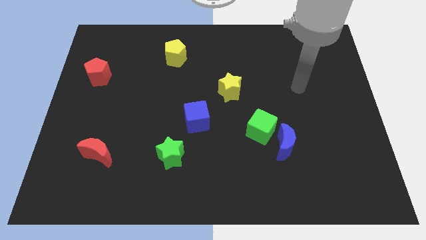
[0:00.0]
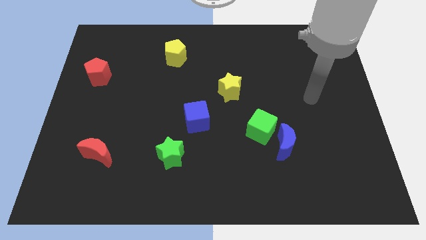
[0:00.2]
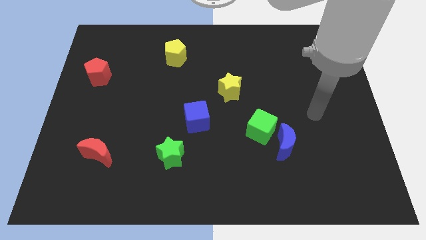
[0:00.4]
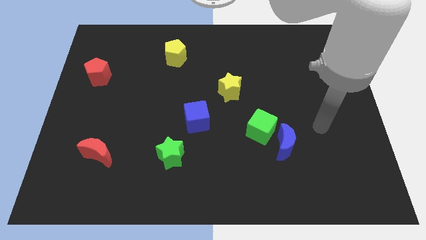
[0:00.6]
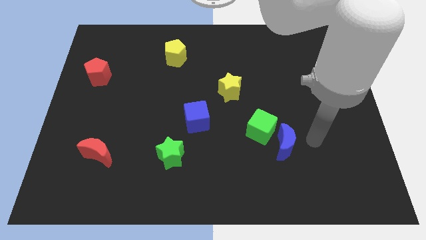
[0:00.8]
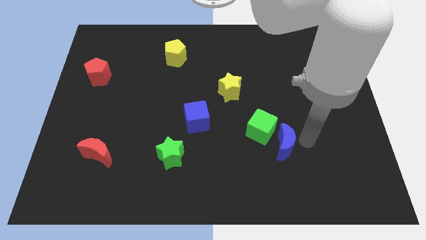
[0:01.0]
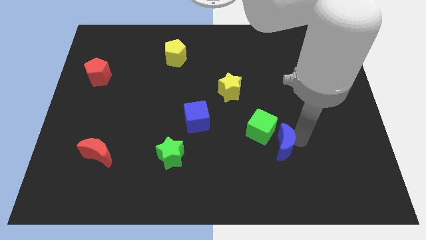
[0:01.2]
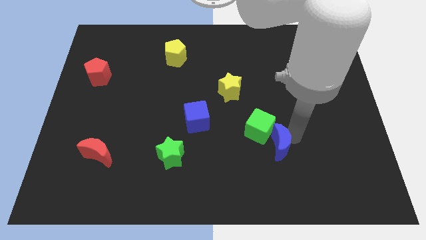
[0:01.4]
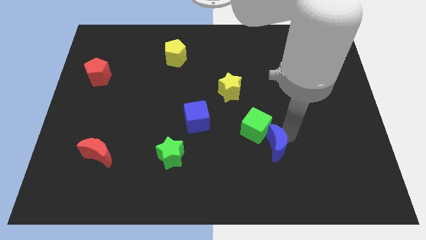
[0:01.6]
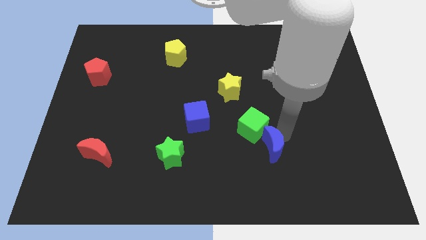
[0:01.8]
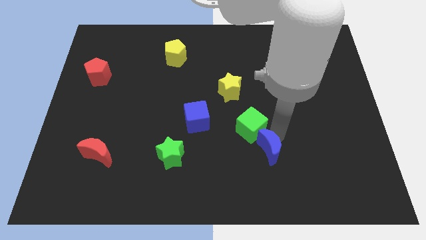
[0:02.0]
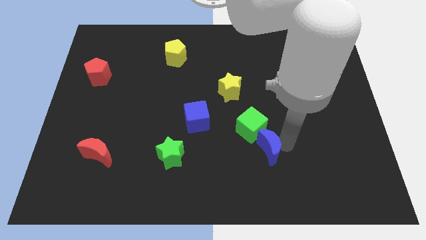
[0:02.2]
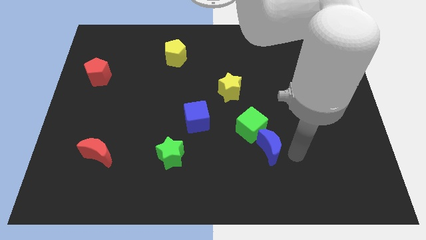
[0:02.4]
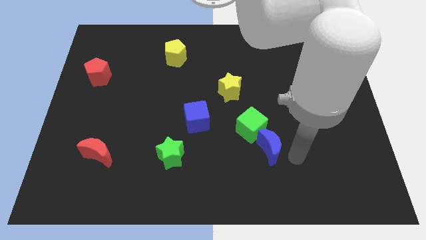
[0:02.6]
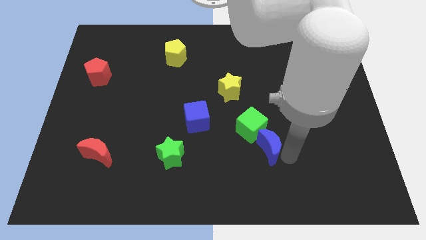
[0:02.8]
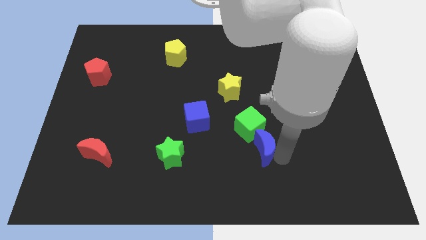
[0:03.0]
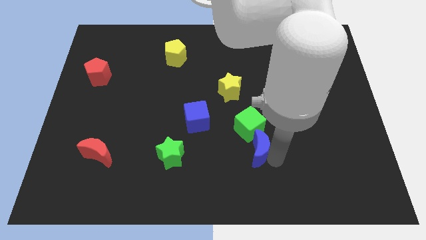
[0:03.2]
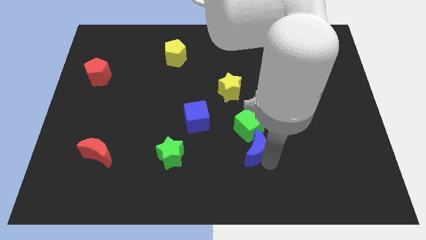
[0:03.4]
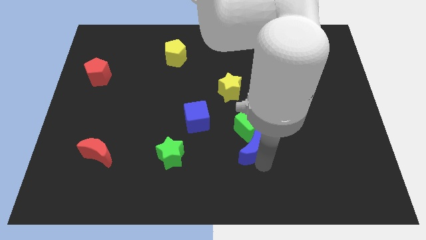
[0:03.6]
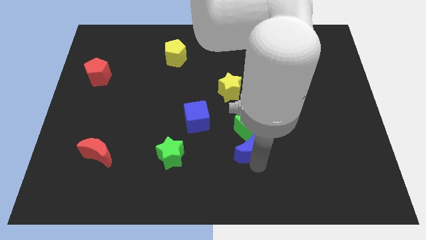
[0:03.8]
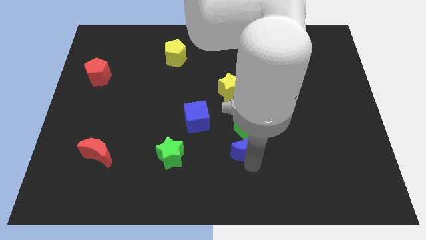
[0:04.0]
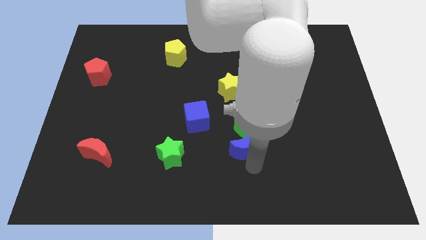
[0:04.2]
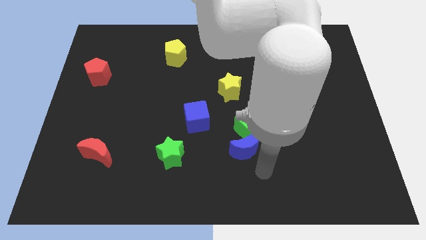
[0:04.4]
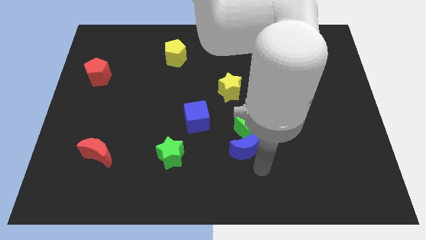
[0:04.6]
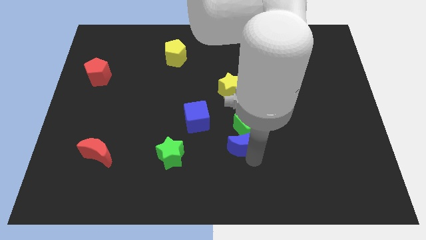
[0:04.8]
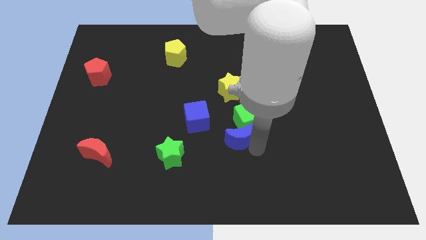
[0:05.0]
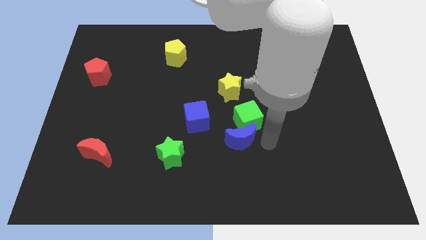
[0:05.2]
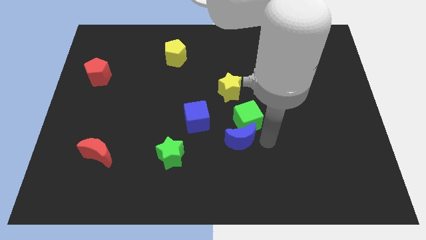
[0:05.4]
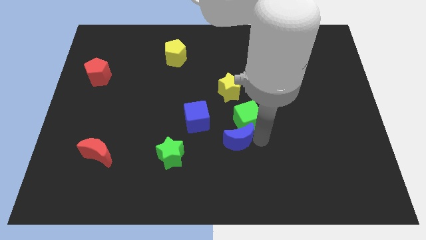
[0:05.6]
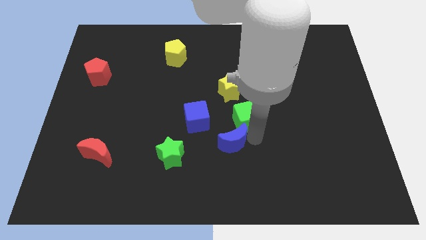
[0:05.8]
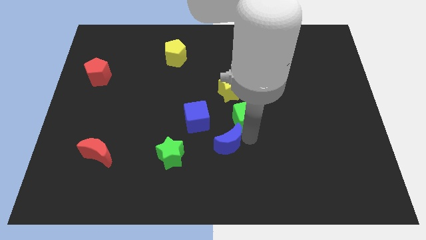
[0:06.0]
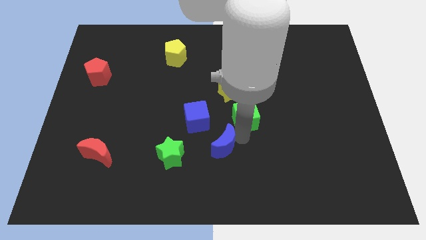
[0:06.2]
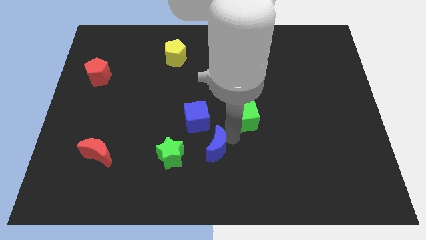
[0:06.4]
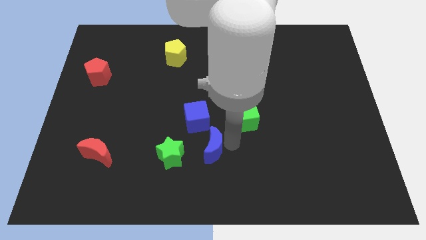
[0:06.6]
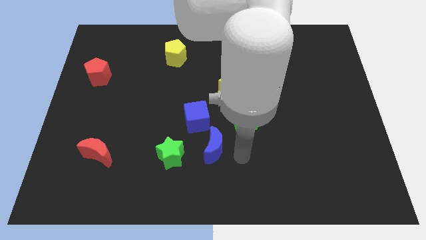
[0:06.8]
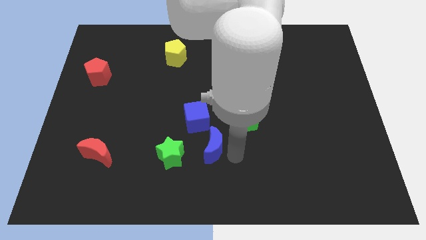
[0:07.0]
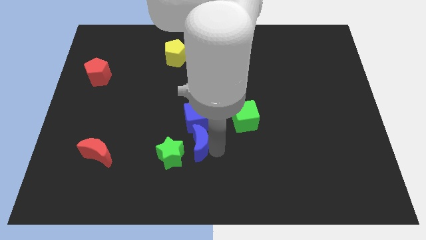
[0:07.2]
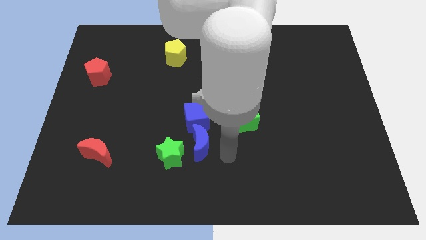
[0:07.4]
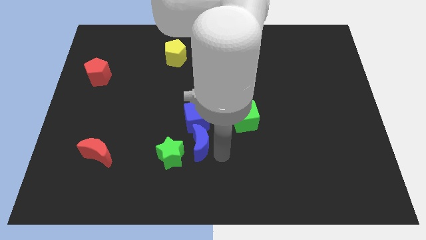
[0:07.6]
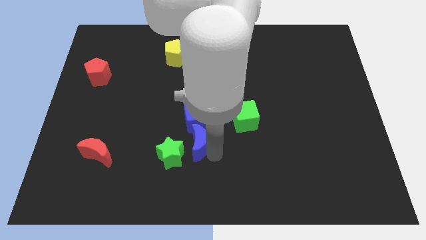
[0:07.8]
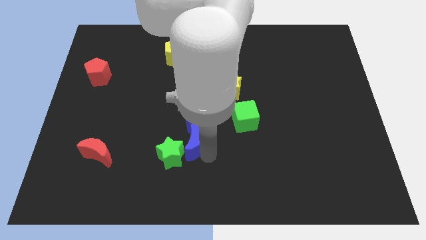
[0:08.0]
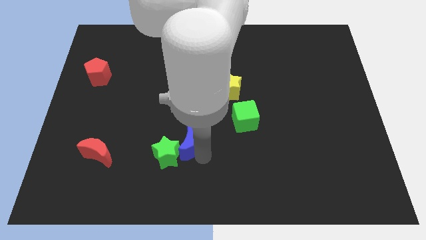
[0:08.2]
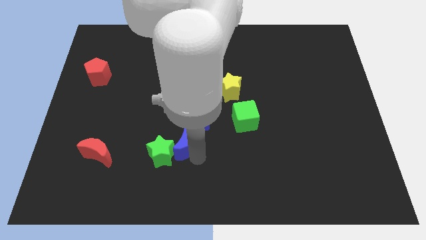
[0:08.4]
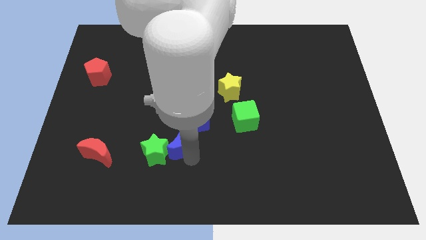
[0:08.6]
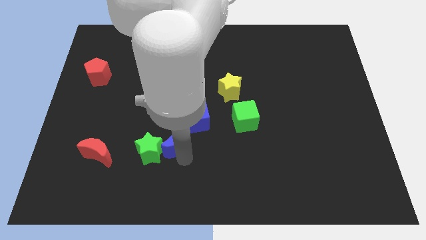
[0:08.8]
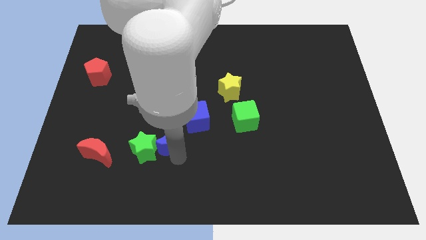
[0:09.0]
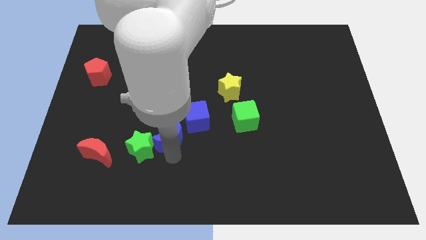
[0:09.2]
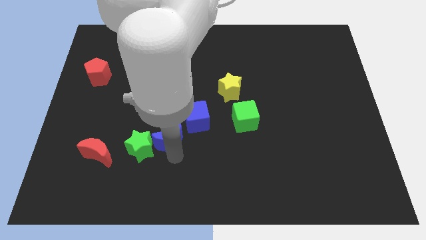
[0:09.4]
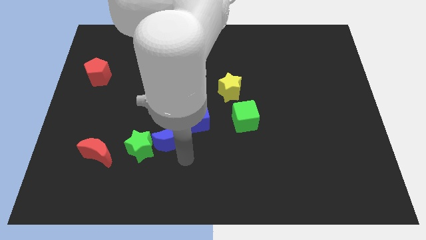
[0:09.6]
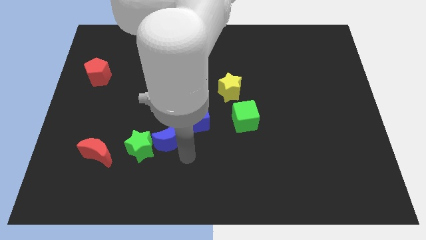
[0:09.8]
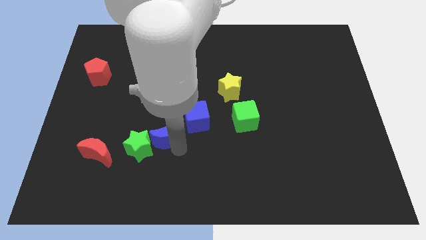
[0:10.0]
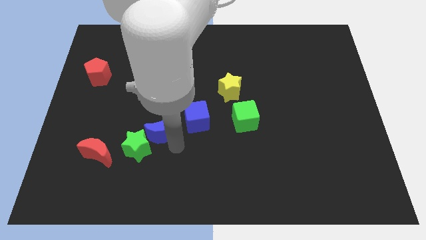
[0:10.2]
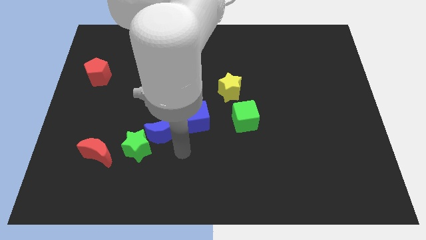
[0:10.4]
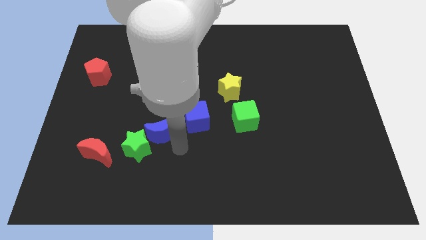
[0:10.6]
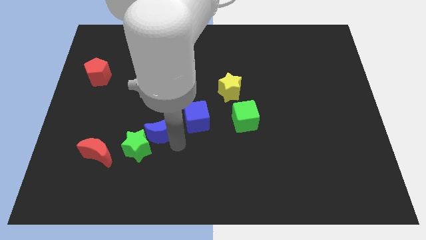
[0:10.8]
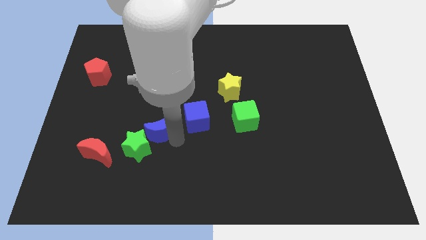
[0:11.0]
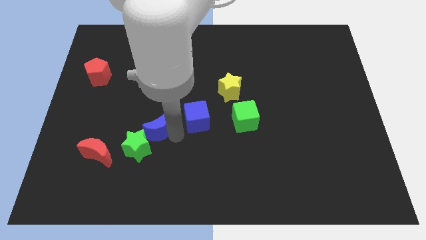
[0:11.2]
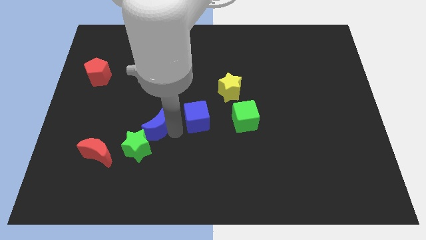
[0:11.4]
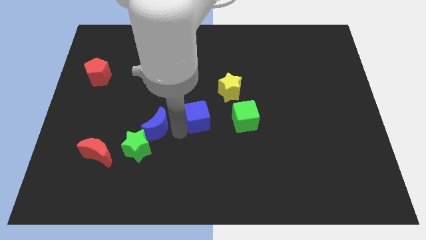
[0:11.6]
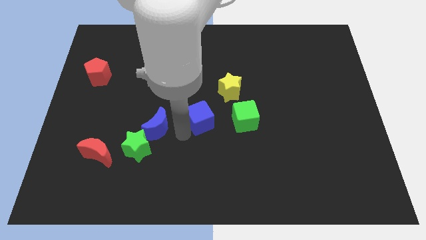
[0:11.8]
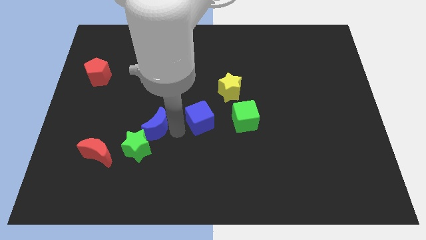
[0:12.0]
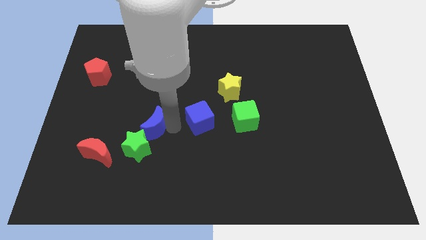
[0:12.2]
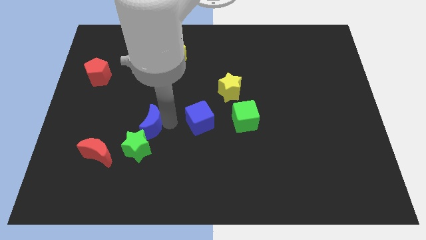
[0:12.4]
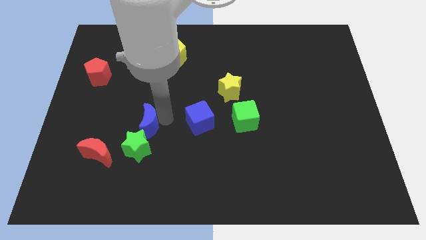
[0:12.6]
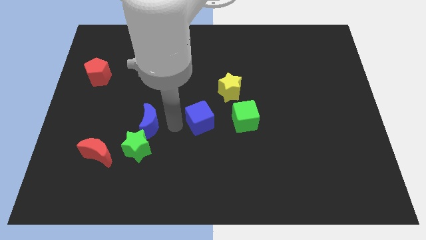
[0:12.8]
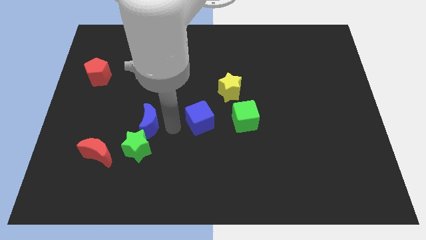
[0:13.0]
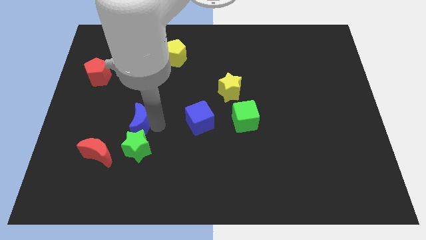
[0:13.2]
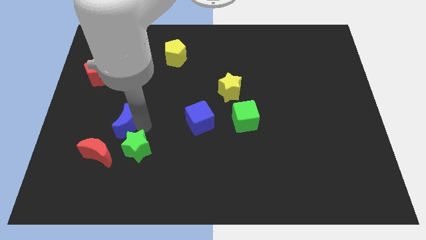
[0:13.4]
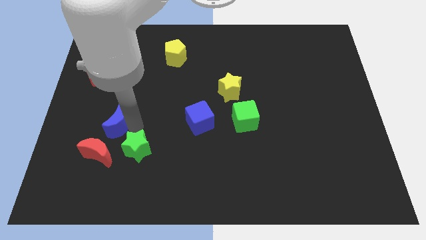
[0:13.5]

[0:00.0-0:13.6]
put the blue moon above the red moon

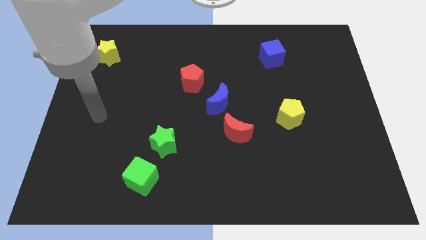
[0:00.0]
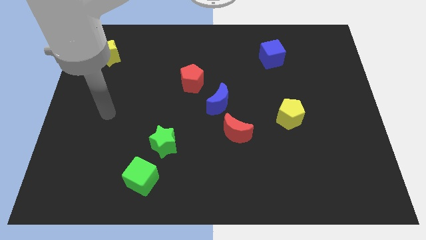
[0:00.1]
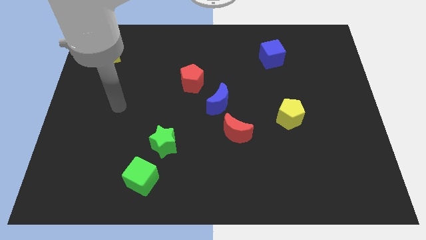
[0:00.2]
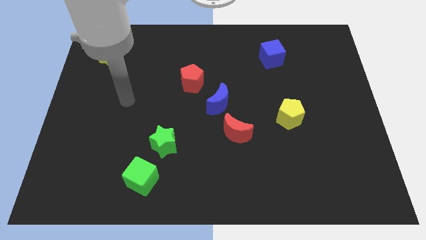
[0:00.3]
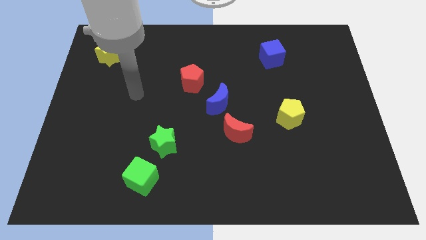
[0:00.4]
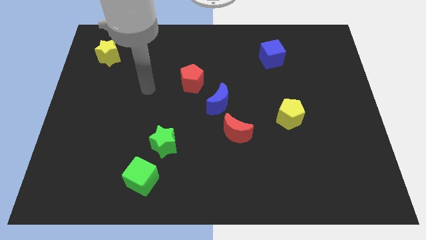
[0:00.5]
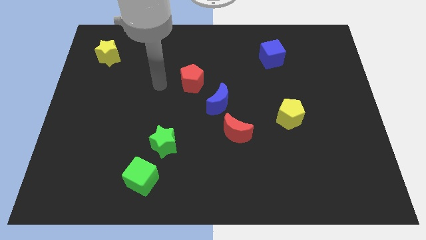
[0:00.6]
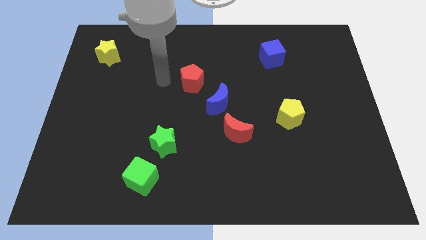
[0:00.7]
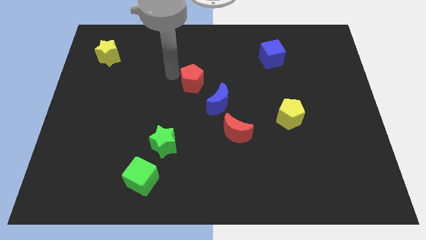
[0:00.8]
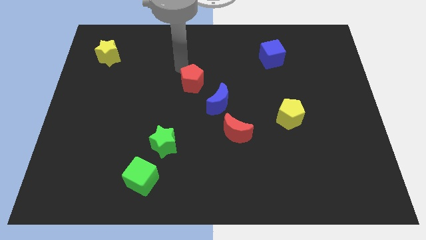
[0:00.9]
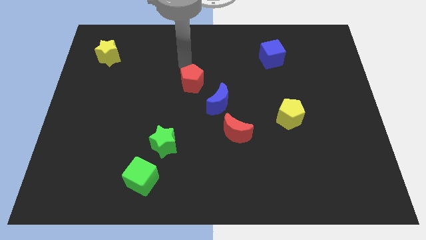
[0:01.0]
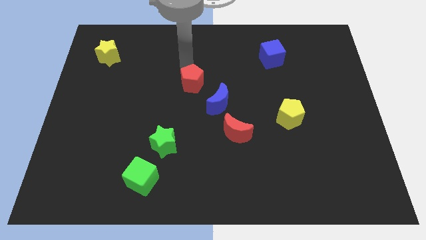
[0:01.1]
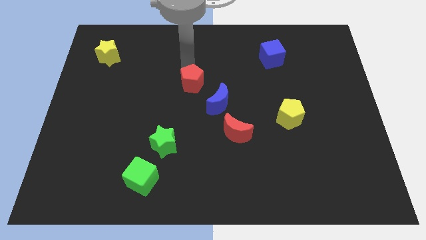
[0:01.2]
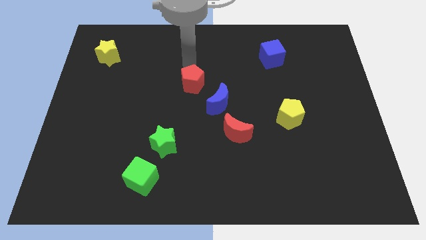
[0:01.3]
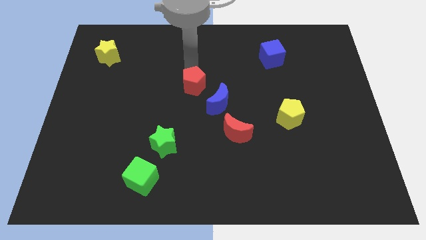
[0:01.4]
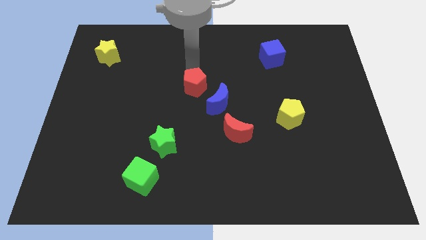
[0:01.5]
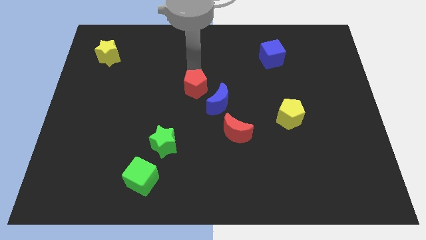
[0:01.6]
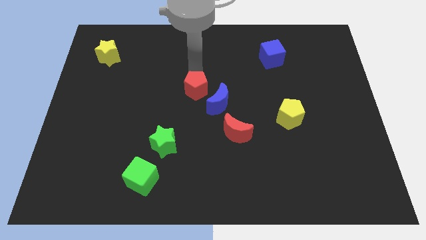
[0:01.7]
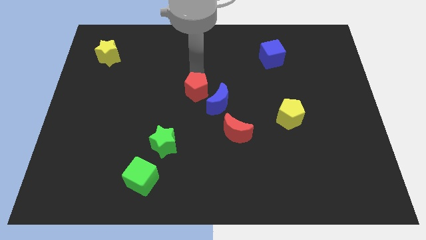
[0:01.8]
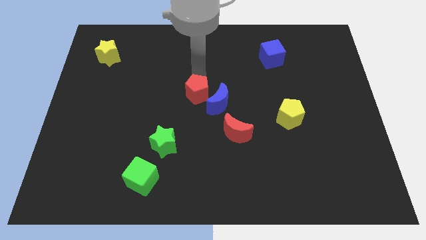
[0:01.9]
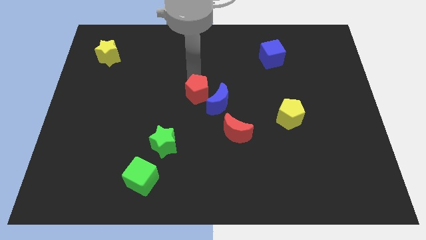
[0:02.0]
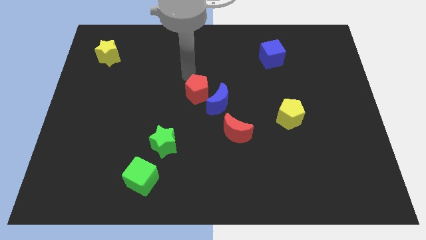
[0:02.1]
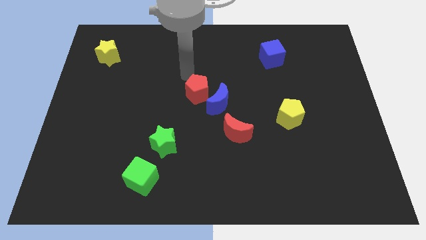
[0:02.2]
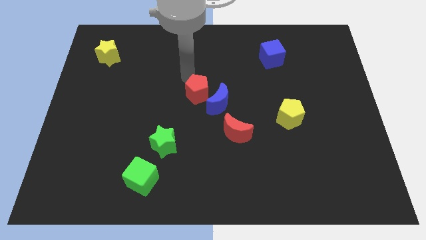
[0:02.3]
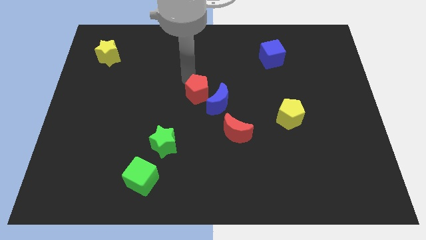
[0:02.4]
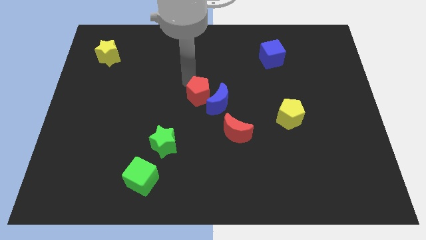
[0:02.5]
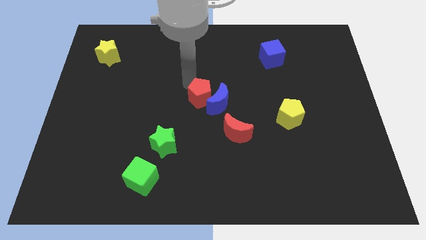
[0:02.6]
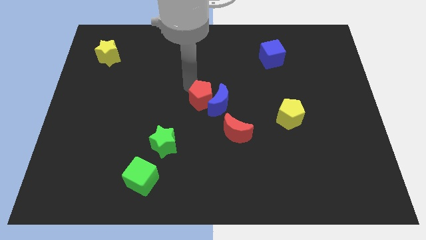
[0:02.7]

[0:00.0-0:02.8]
slide the red pentagon to the top left side of the red moon
